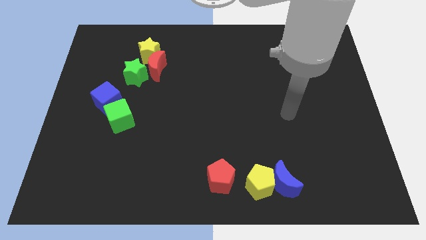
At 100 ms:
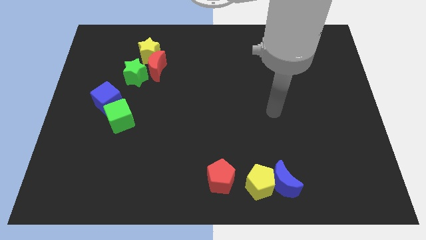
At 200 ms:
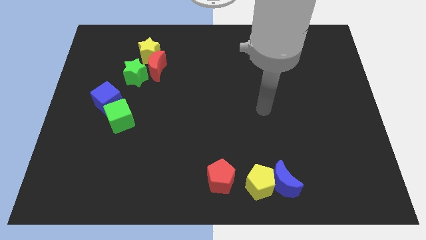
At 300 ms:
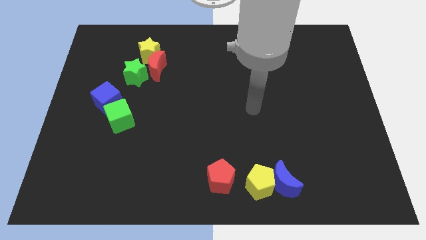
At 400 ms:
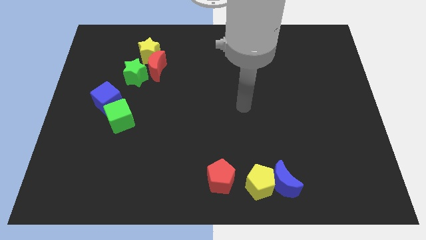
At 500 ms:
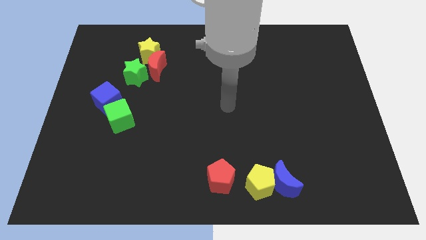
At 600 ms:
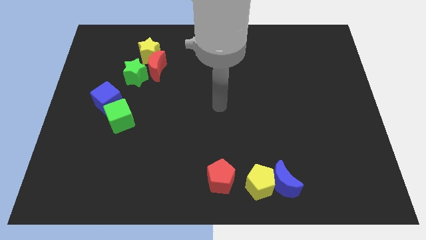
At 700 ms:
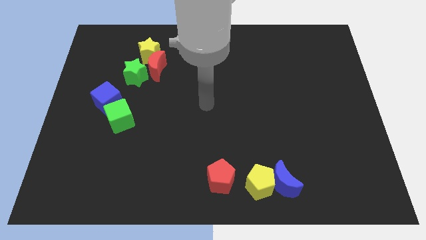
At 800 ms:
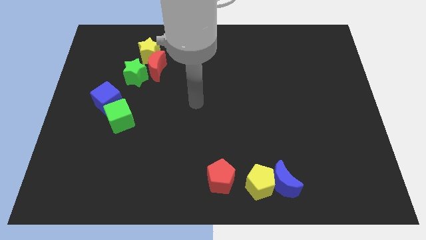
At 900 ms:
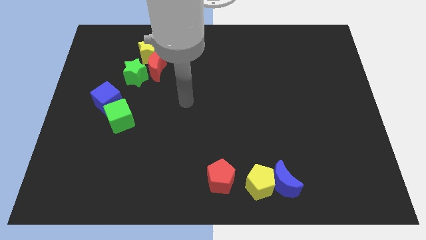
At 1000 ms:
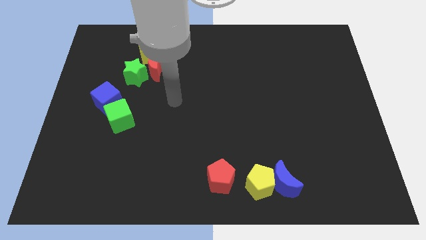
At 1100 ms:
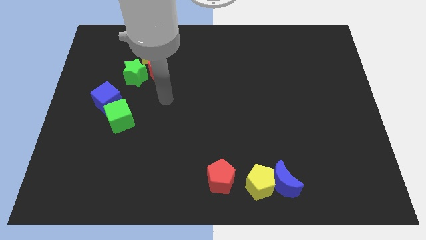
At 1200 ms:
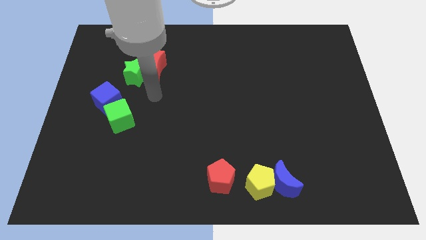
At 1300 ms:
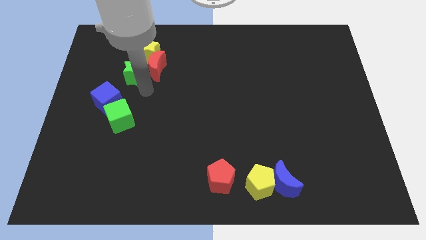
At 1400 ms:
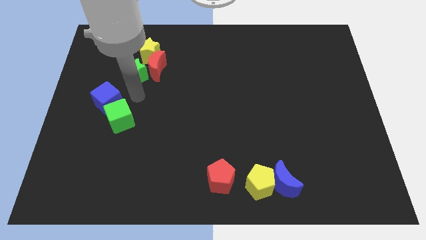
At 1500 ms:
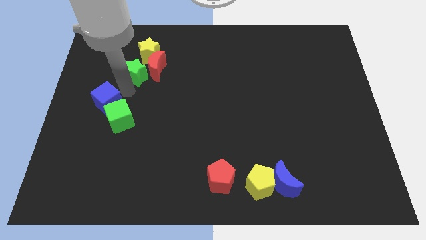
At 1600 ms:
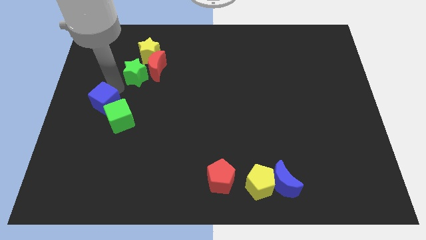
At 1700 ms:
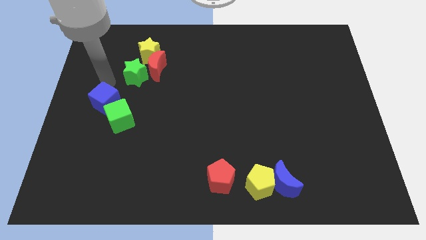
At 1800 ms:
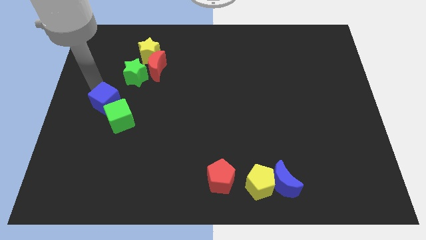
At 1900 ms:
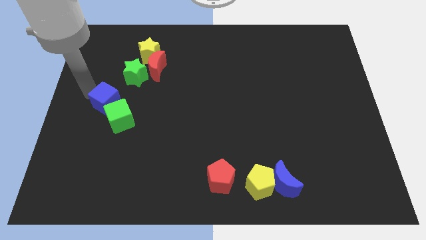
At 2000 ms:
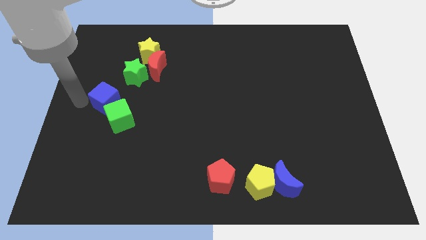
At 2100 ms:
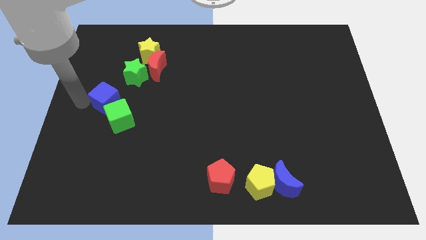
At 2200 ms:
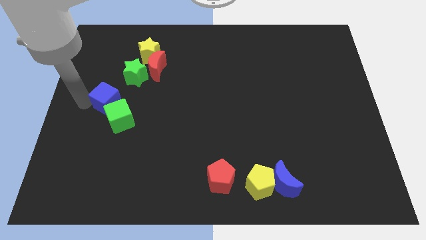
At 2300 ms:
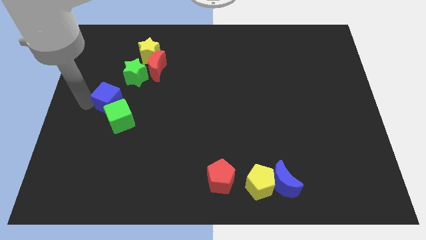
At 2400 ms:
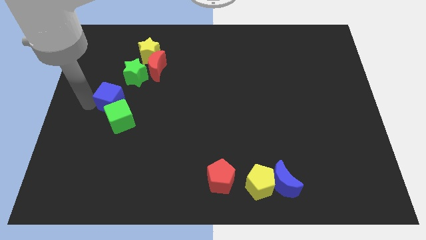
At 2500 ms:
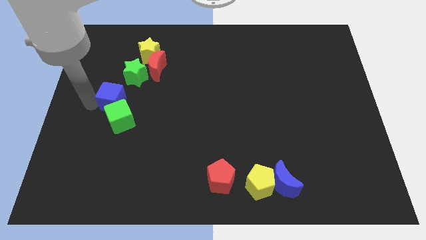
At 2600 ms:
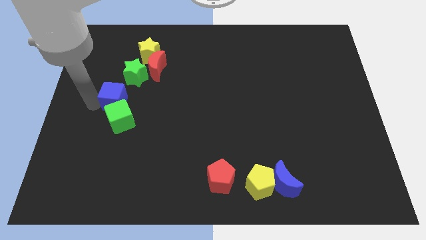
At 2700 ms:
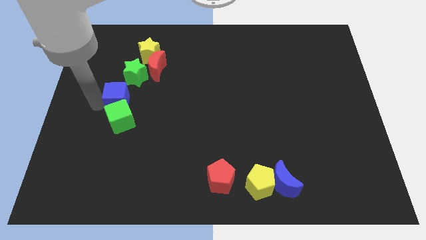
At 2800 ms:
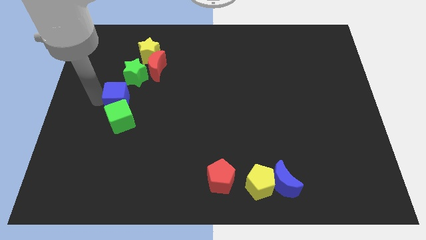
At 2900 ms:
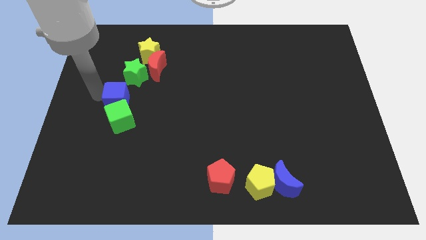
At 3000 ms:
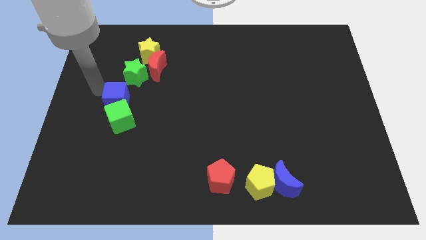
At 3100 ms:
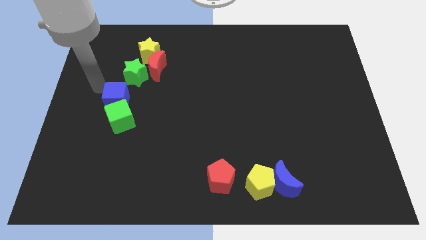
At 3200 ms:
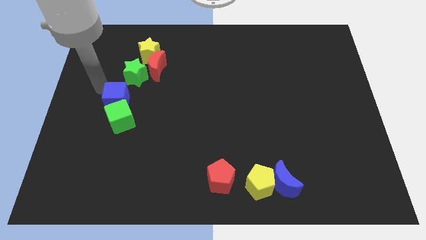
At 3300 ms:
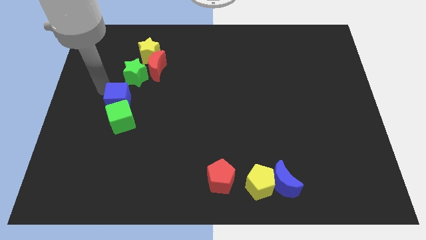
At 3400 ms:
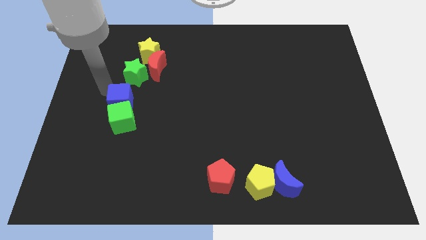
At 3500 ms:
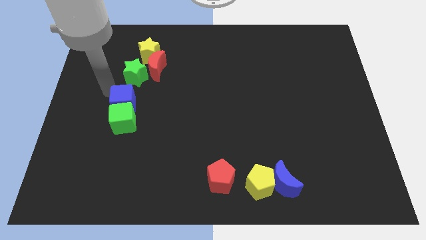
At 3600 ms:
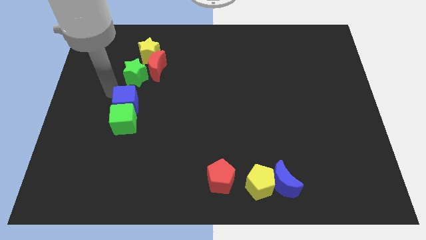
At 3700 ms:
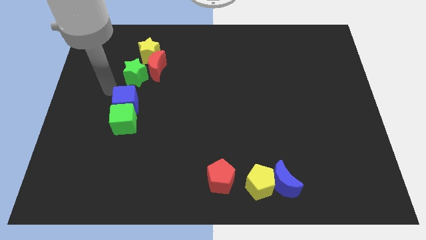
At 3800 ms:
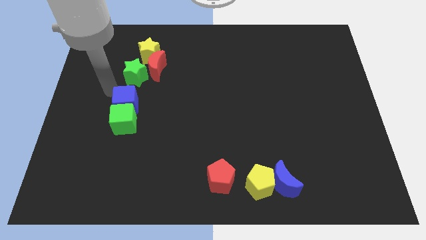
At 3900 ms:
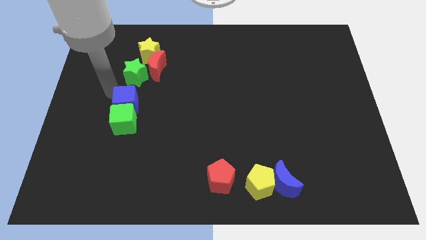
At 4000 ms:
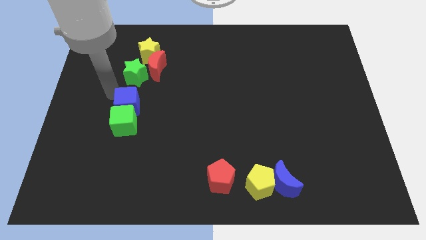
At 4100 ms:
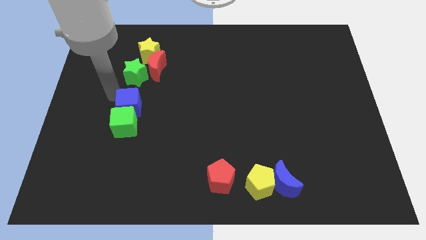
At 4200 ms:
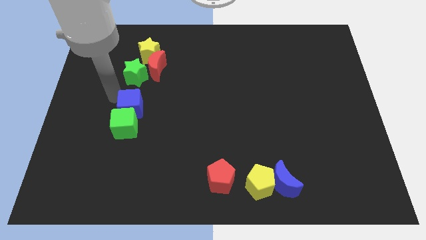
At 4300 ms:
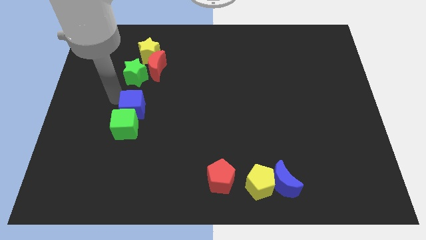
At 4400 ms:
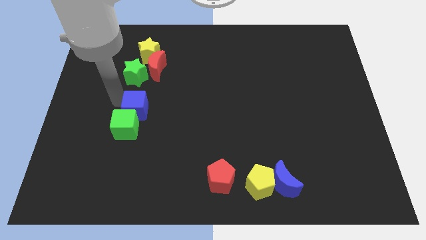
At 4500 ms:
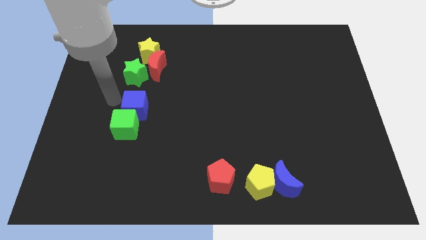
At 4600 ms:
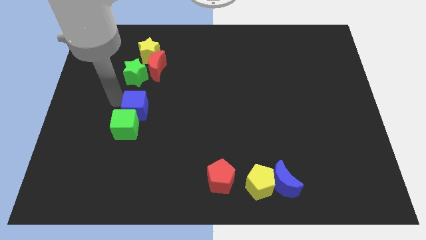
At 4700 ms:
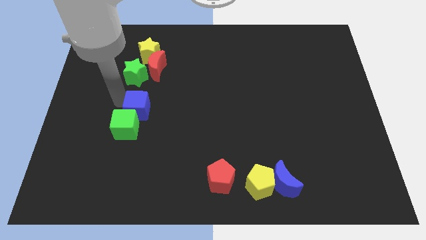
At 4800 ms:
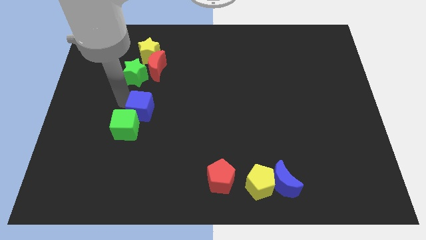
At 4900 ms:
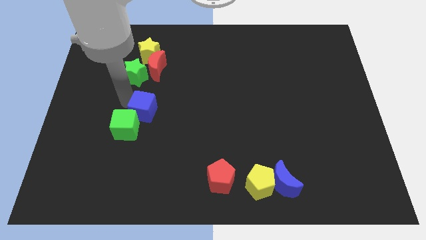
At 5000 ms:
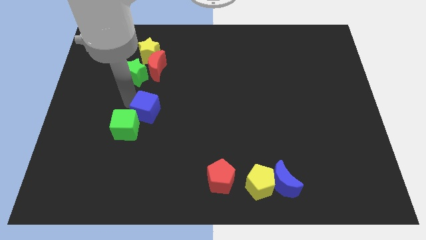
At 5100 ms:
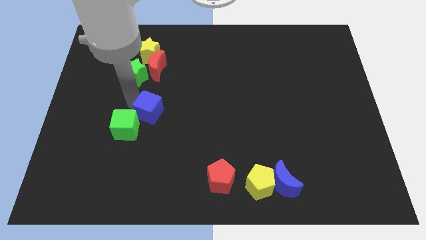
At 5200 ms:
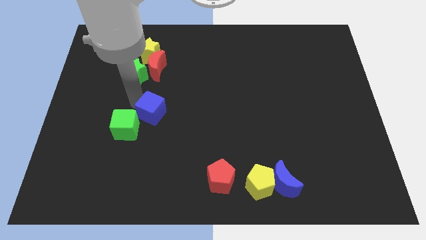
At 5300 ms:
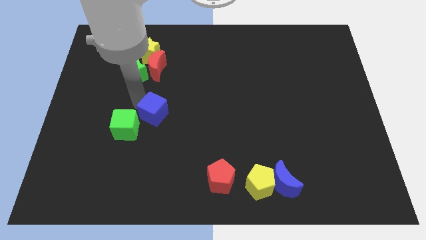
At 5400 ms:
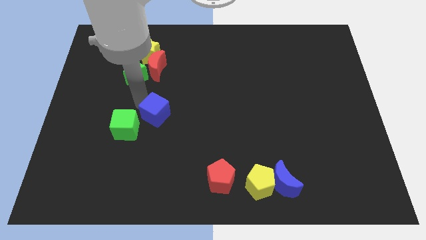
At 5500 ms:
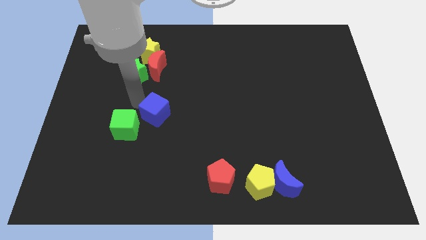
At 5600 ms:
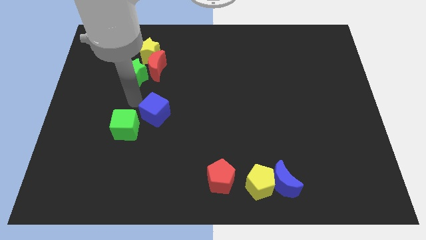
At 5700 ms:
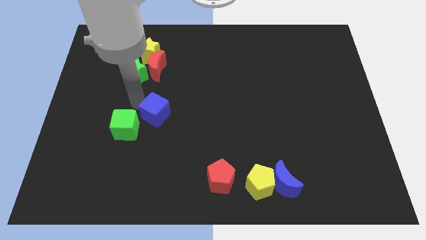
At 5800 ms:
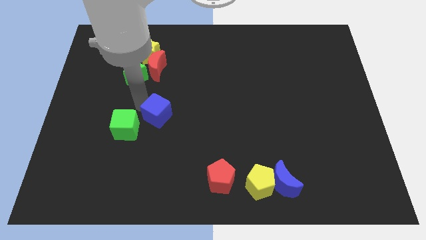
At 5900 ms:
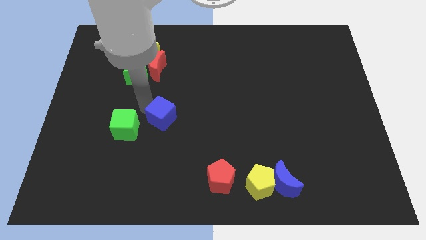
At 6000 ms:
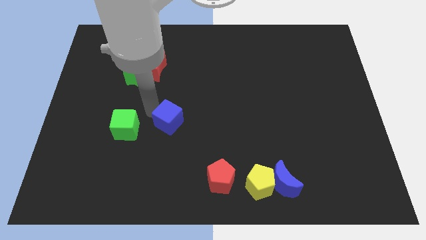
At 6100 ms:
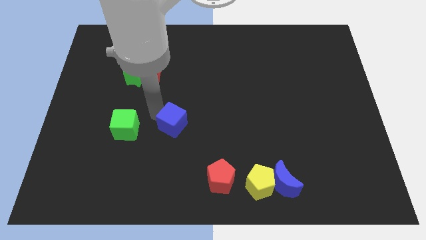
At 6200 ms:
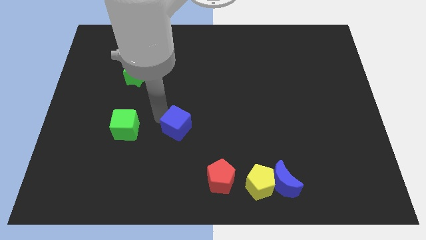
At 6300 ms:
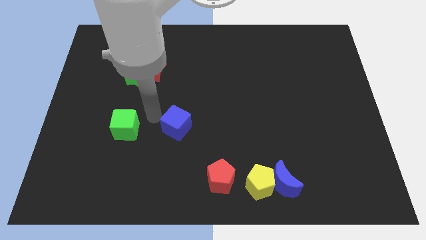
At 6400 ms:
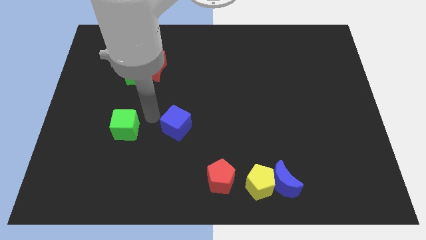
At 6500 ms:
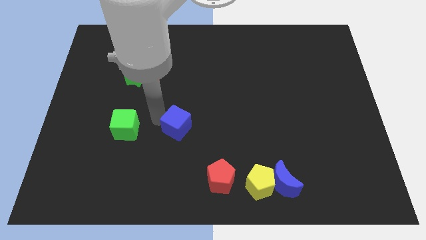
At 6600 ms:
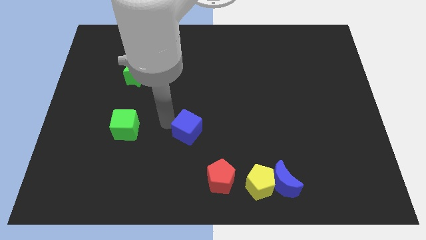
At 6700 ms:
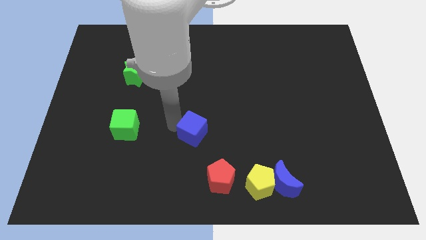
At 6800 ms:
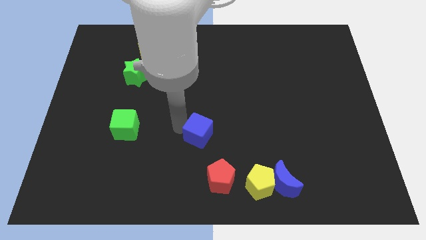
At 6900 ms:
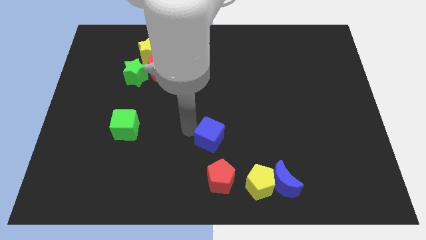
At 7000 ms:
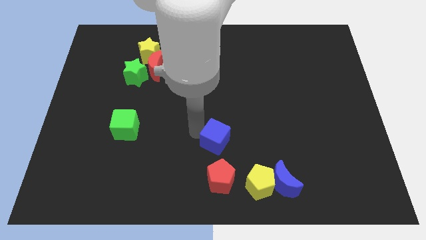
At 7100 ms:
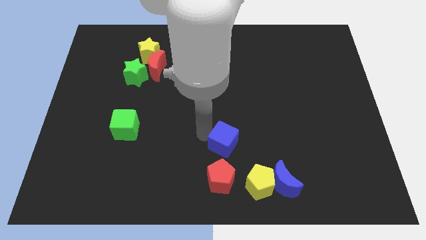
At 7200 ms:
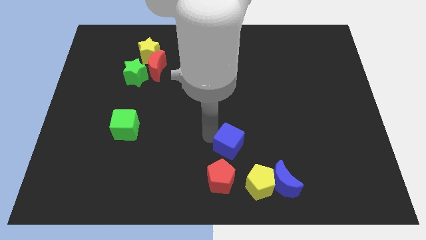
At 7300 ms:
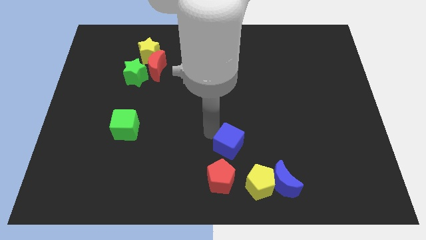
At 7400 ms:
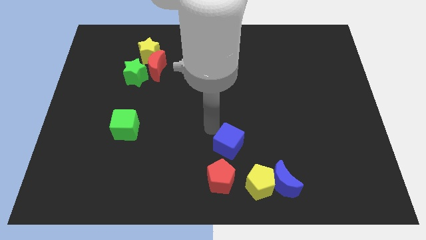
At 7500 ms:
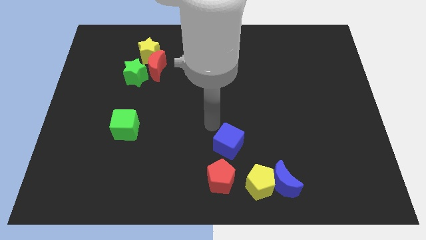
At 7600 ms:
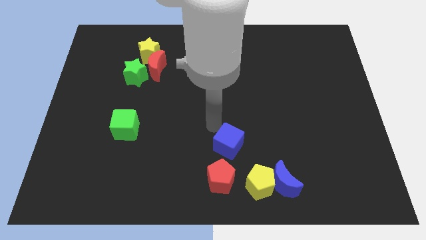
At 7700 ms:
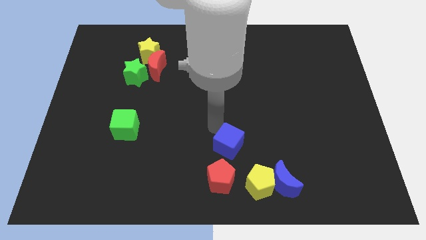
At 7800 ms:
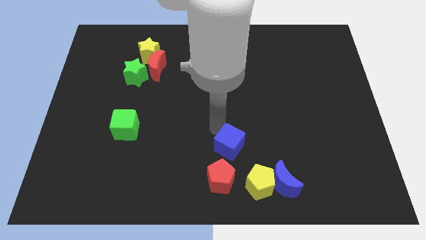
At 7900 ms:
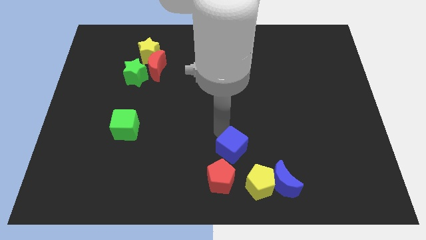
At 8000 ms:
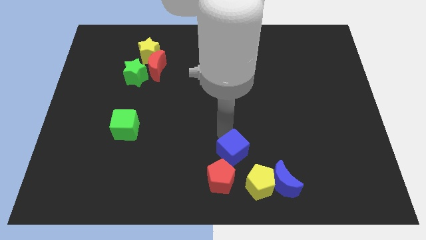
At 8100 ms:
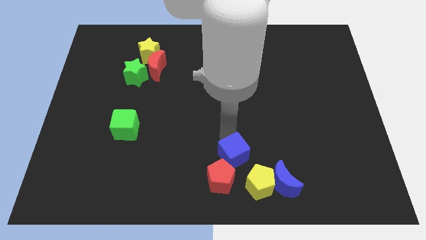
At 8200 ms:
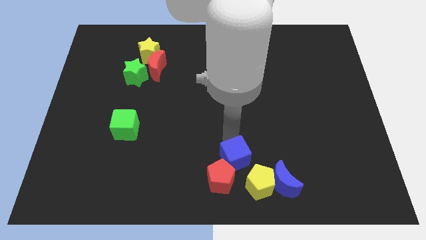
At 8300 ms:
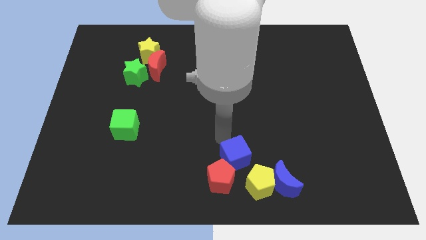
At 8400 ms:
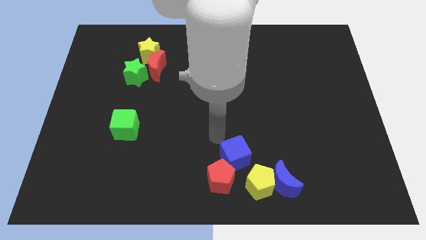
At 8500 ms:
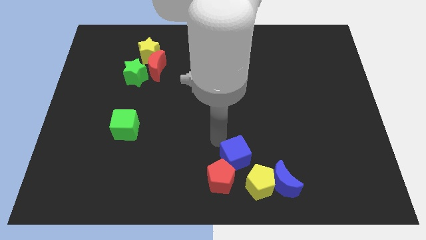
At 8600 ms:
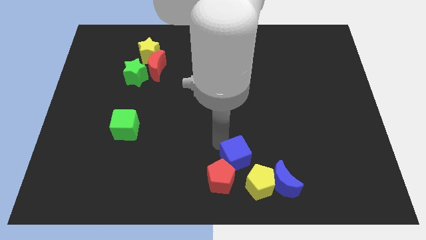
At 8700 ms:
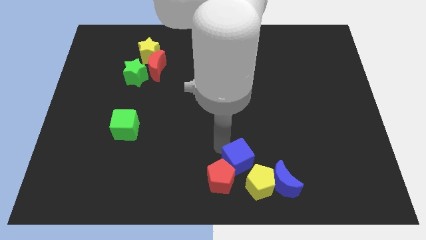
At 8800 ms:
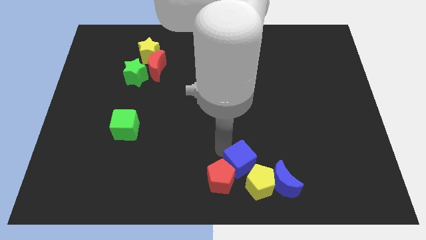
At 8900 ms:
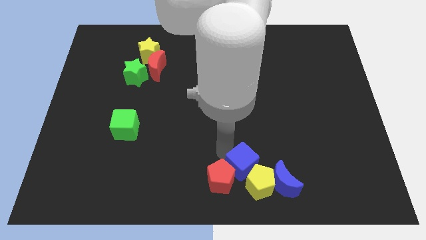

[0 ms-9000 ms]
move the blue cube to the yellow pentagon
